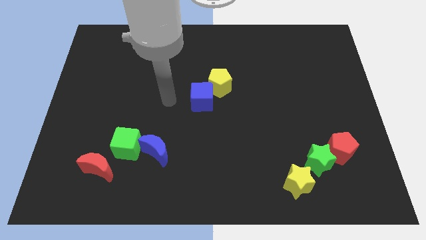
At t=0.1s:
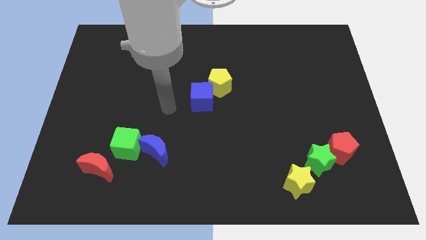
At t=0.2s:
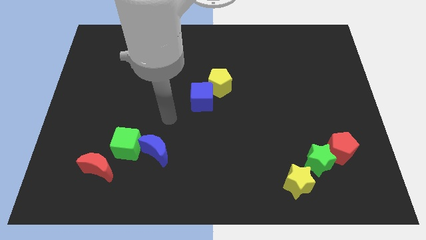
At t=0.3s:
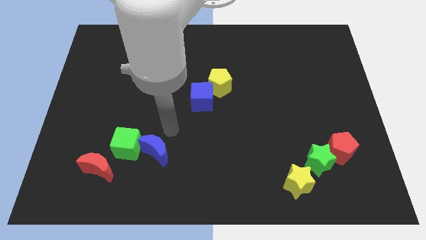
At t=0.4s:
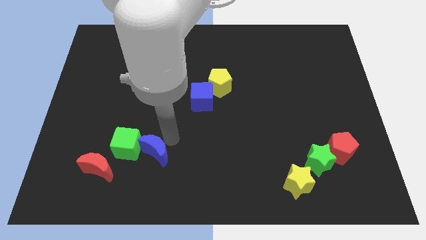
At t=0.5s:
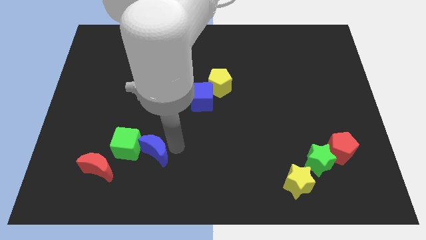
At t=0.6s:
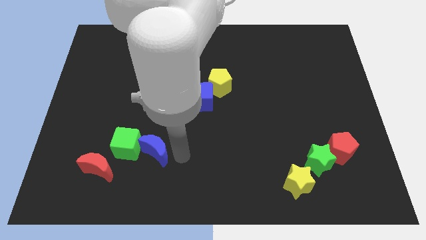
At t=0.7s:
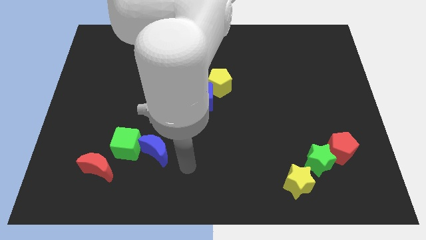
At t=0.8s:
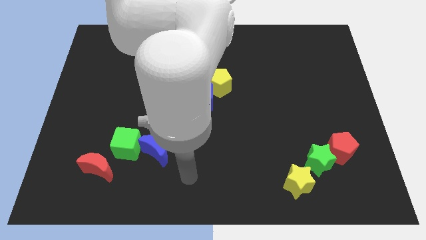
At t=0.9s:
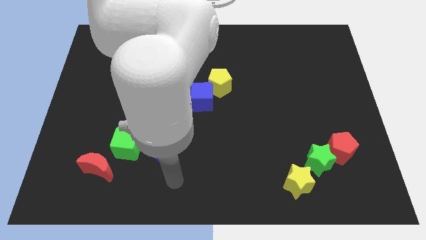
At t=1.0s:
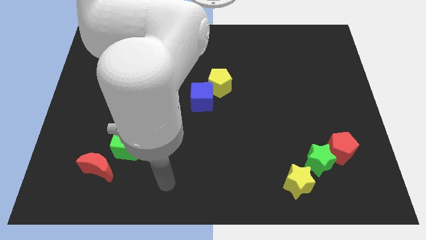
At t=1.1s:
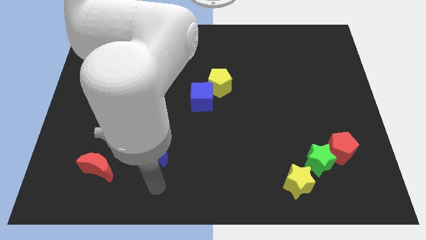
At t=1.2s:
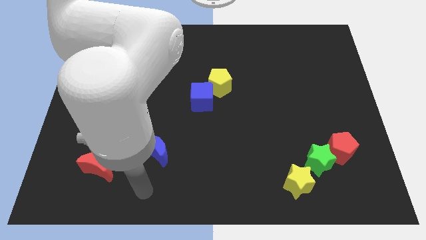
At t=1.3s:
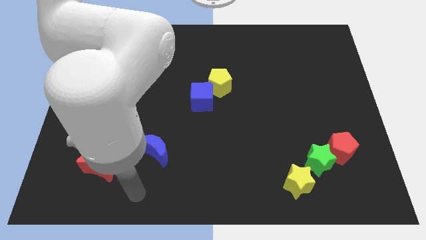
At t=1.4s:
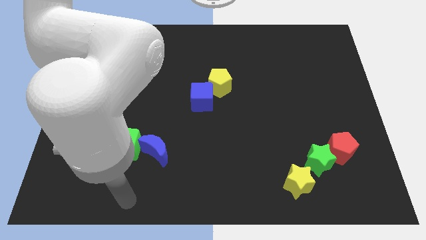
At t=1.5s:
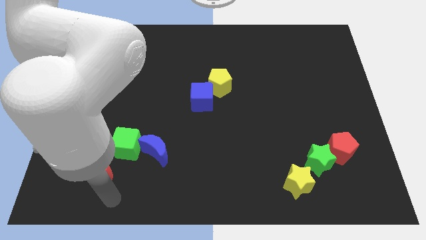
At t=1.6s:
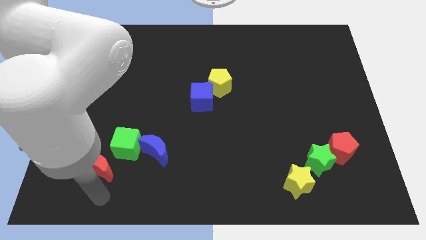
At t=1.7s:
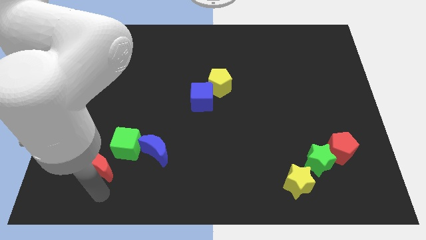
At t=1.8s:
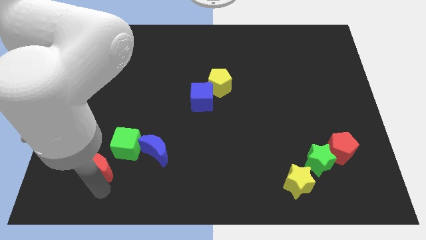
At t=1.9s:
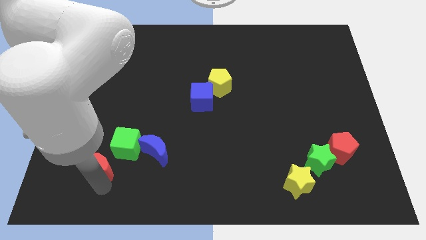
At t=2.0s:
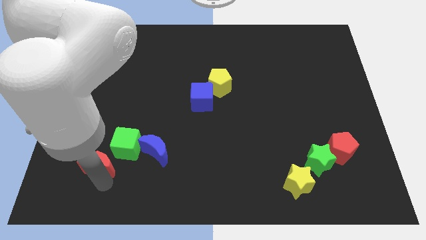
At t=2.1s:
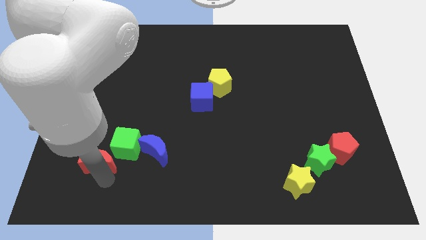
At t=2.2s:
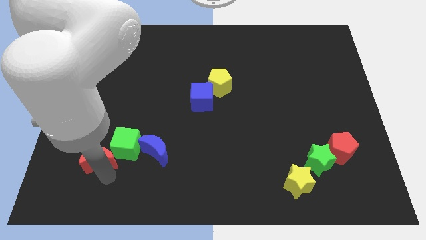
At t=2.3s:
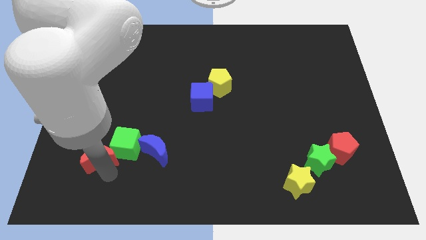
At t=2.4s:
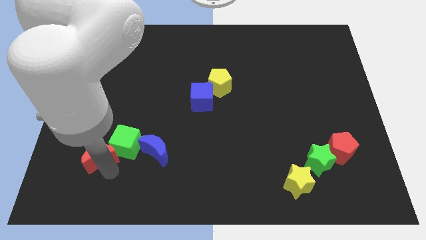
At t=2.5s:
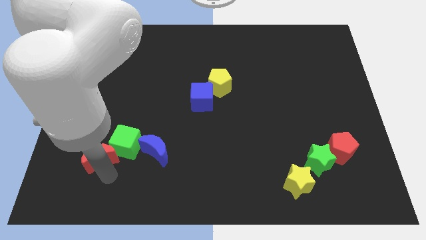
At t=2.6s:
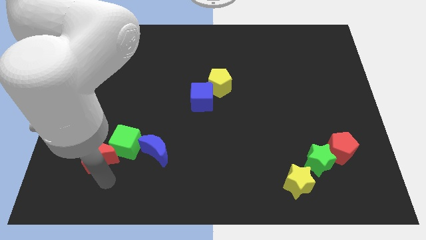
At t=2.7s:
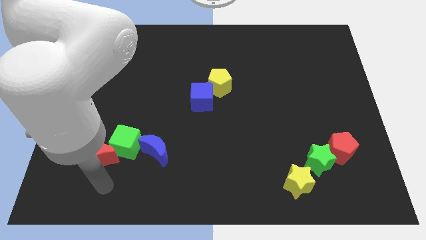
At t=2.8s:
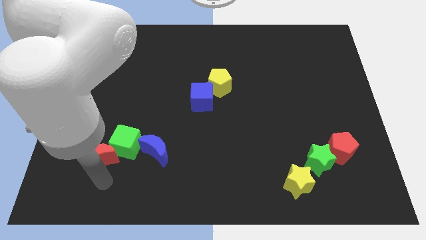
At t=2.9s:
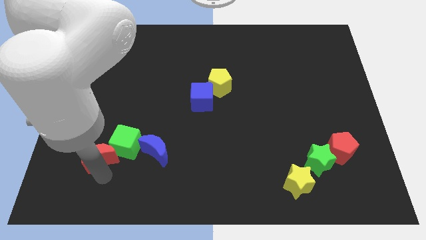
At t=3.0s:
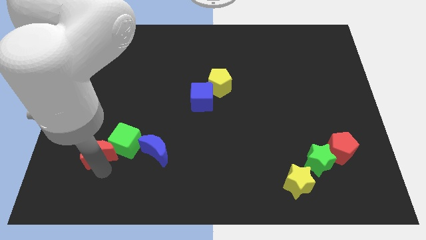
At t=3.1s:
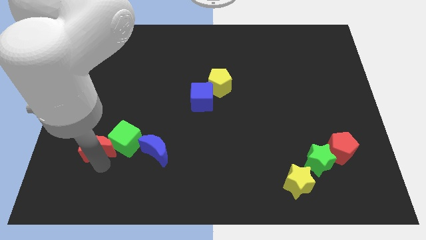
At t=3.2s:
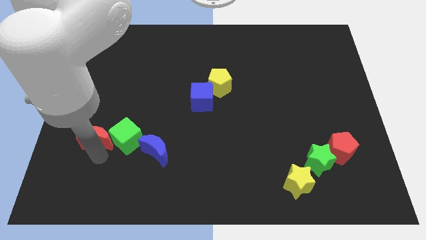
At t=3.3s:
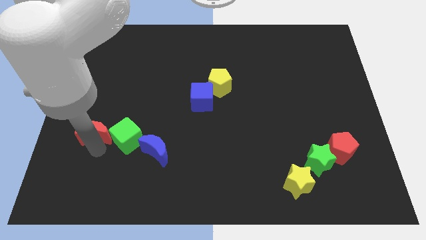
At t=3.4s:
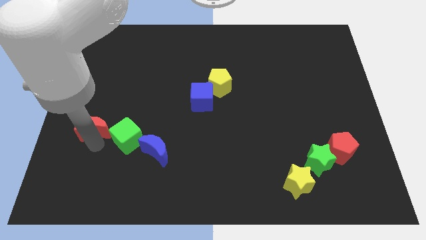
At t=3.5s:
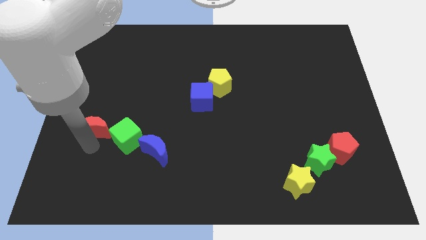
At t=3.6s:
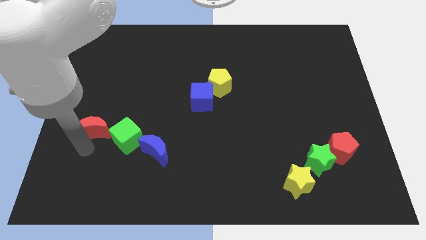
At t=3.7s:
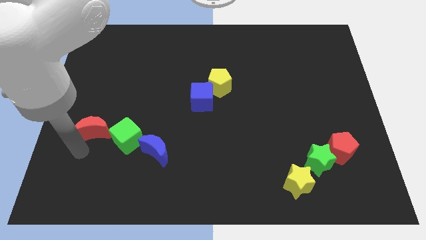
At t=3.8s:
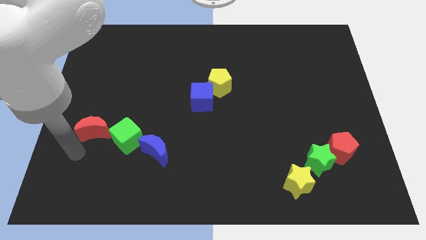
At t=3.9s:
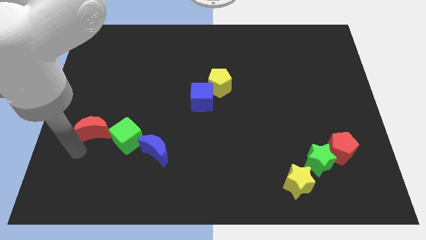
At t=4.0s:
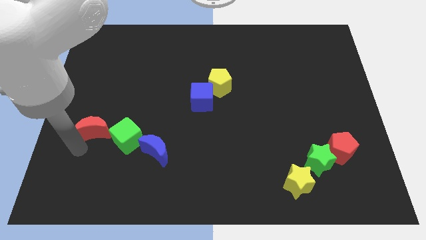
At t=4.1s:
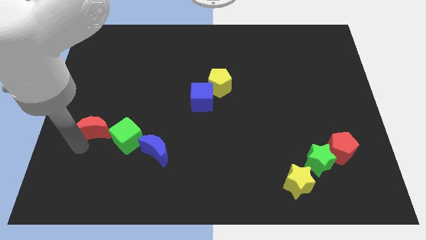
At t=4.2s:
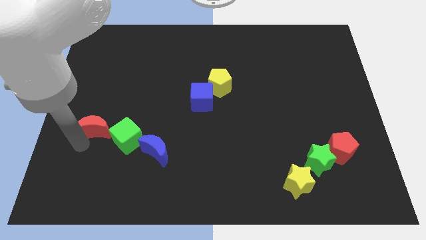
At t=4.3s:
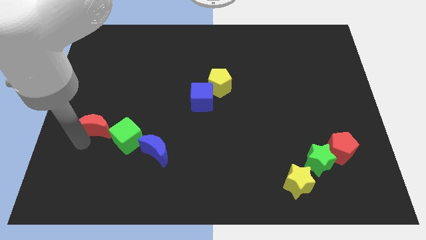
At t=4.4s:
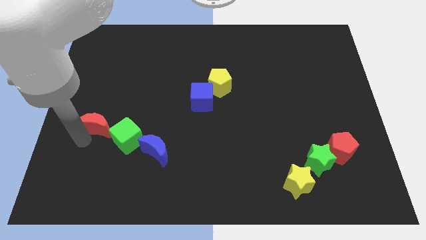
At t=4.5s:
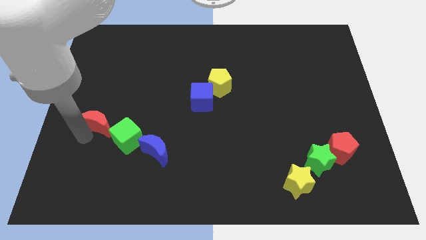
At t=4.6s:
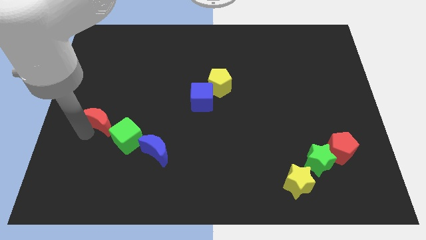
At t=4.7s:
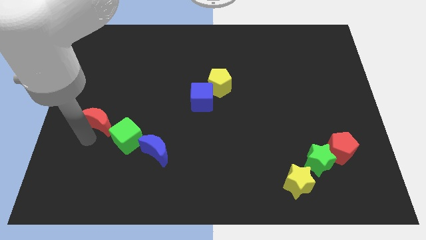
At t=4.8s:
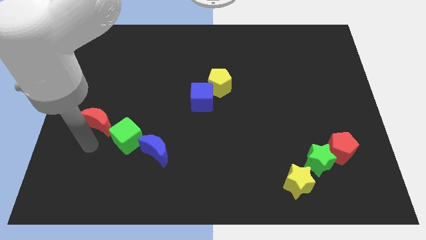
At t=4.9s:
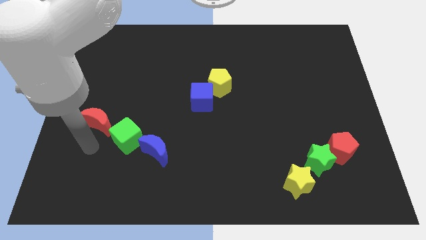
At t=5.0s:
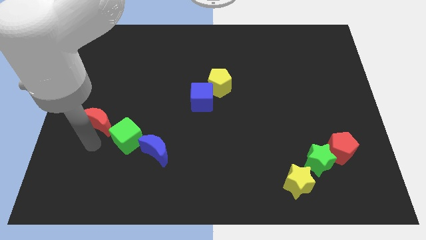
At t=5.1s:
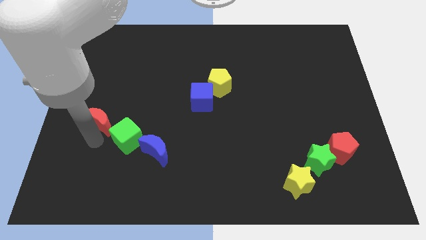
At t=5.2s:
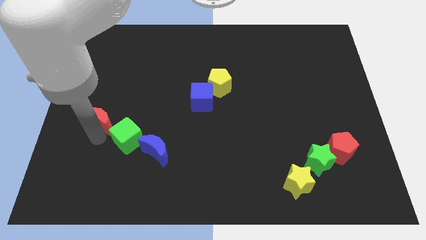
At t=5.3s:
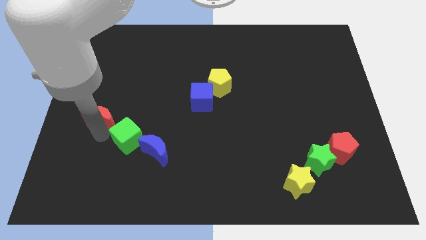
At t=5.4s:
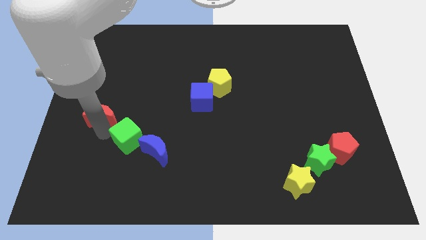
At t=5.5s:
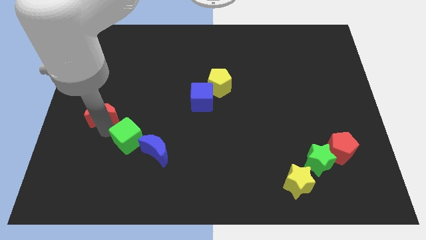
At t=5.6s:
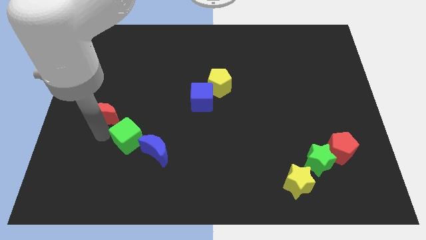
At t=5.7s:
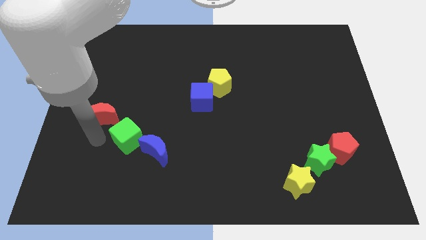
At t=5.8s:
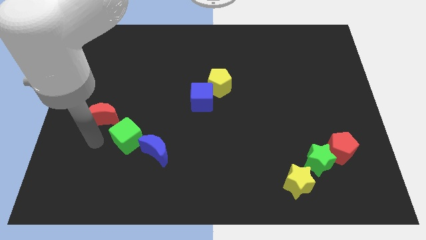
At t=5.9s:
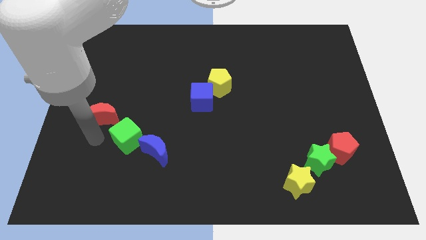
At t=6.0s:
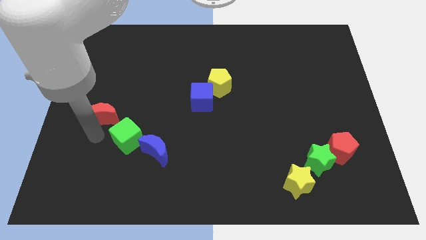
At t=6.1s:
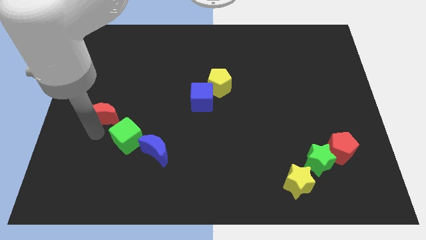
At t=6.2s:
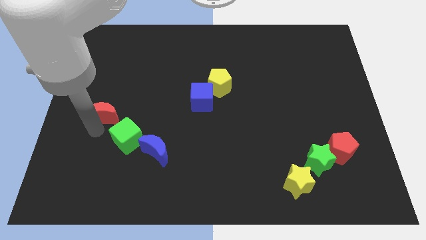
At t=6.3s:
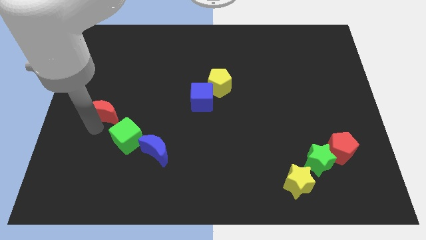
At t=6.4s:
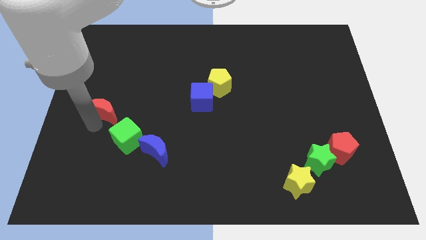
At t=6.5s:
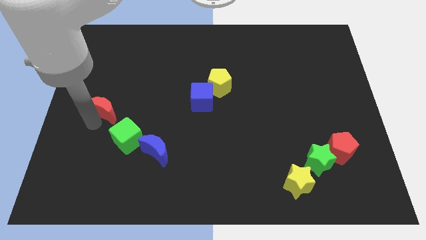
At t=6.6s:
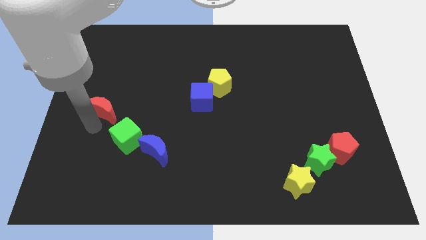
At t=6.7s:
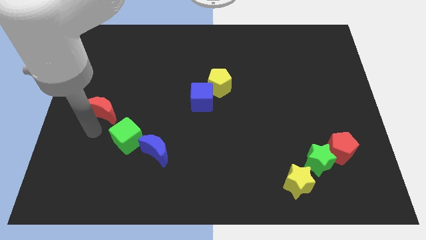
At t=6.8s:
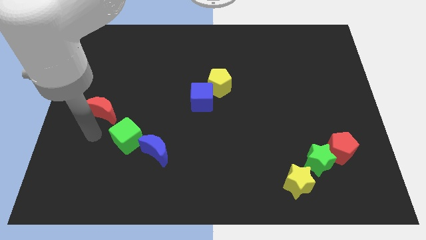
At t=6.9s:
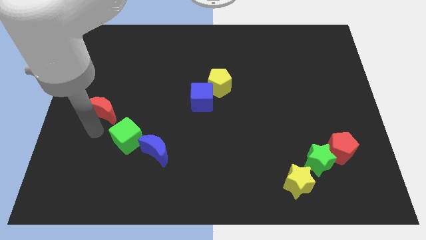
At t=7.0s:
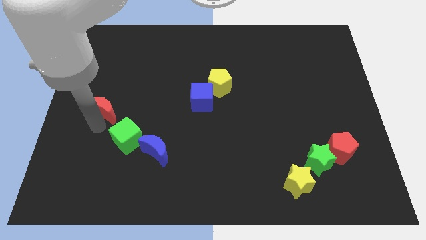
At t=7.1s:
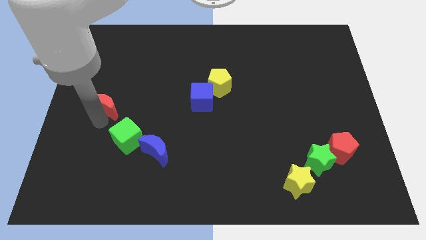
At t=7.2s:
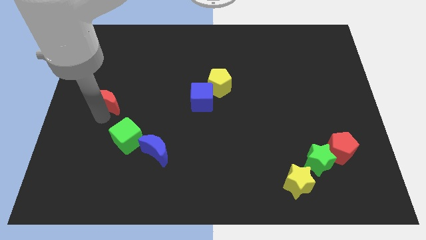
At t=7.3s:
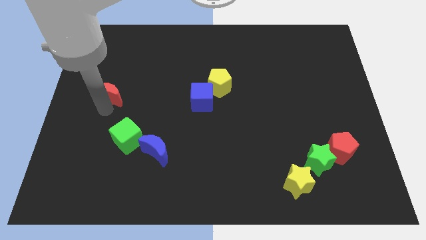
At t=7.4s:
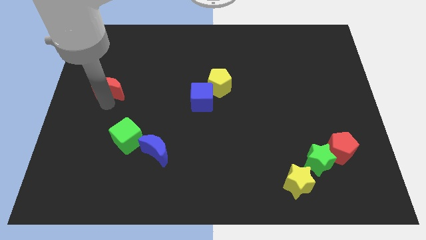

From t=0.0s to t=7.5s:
move the red moon up

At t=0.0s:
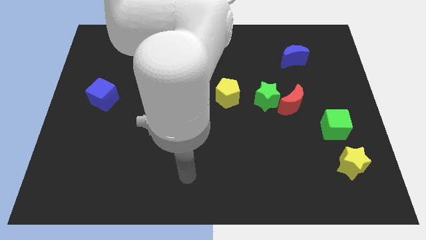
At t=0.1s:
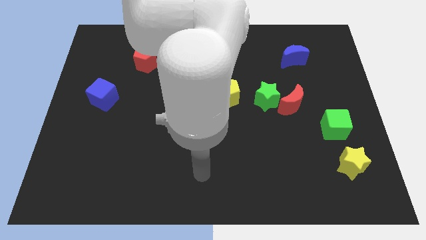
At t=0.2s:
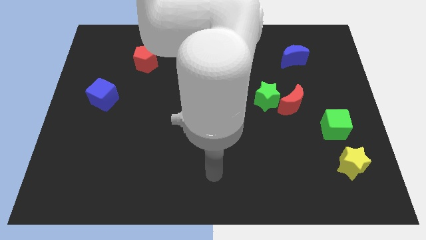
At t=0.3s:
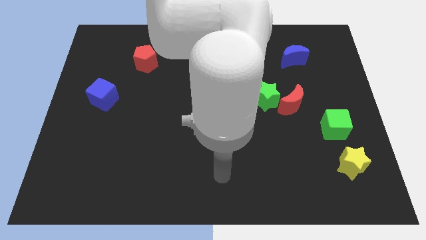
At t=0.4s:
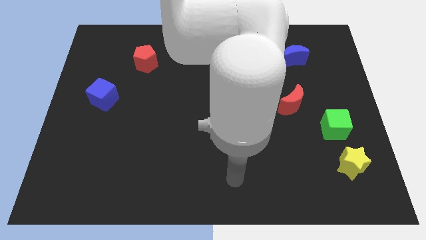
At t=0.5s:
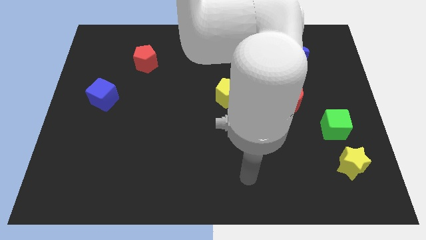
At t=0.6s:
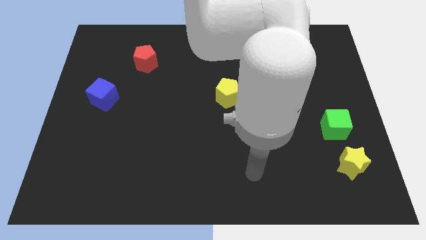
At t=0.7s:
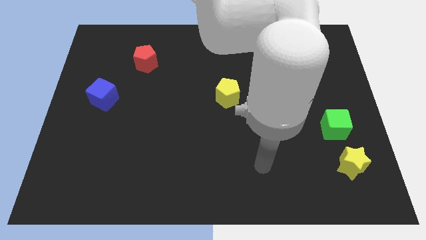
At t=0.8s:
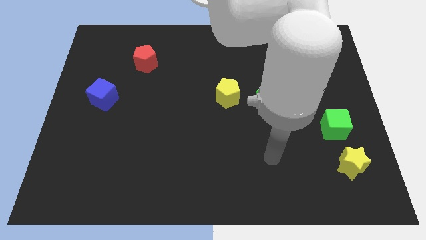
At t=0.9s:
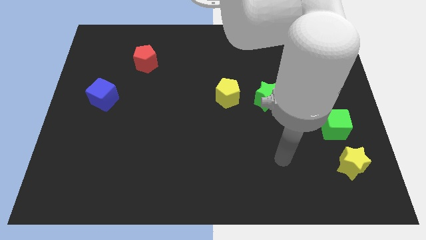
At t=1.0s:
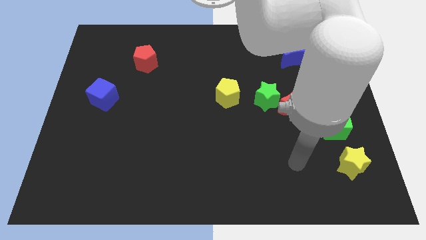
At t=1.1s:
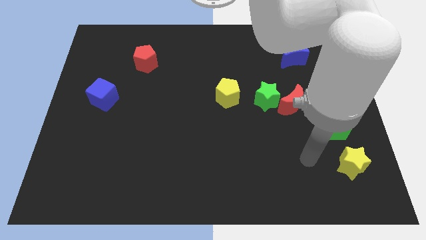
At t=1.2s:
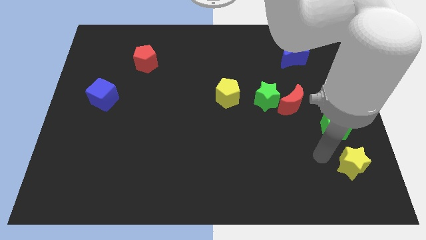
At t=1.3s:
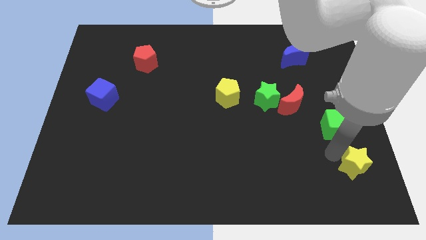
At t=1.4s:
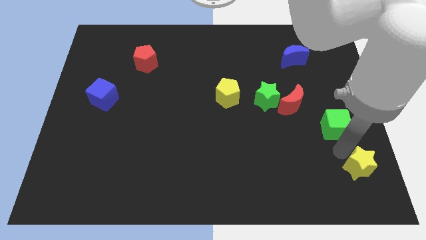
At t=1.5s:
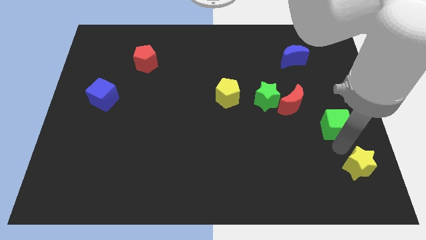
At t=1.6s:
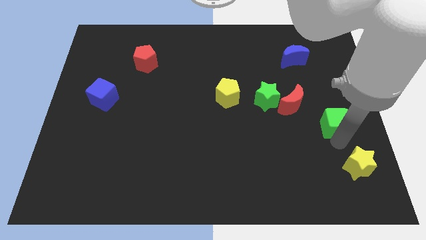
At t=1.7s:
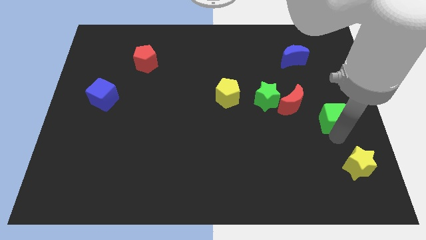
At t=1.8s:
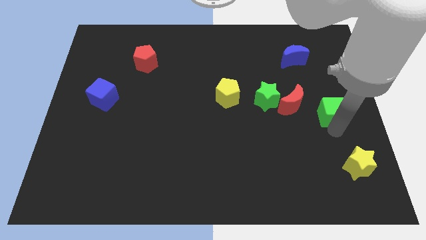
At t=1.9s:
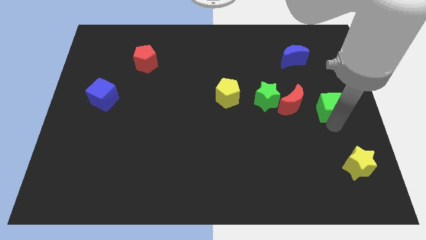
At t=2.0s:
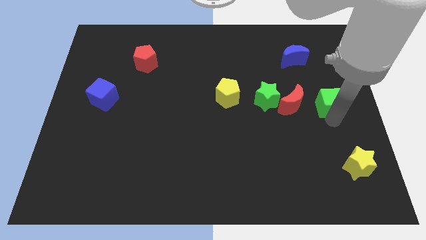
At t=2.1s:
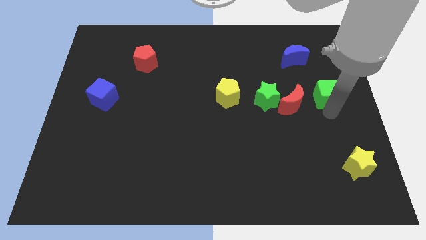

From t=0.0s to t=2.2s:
move the green cube a little up
